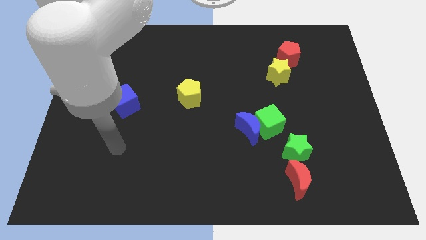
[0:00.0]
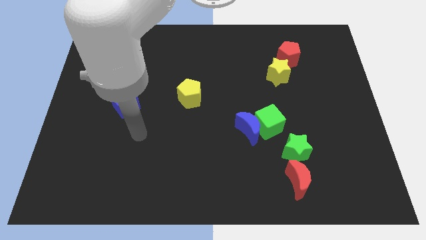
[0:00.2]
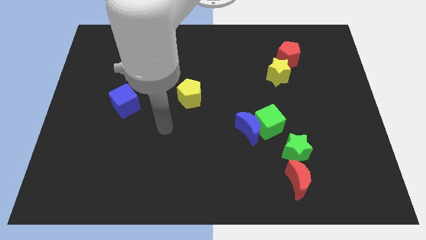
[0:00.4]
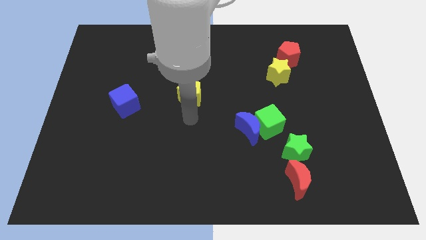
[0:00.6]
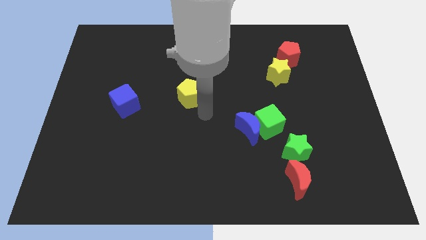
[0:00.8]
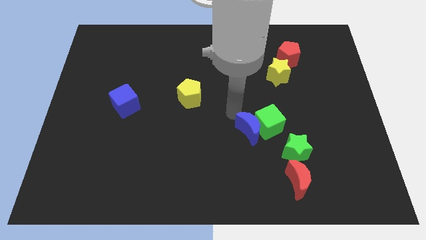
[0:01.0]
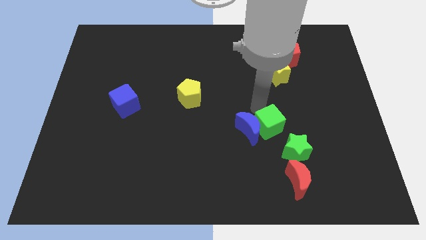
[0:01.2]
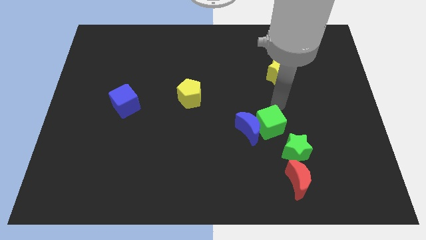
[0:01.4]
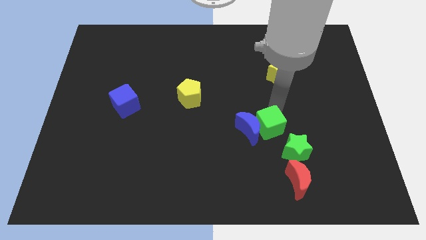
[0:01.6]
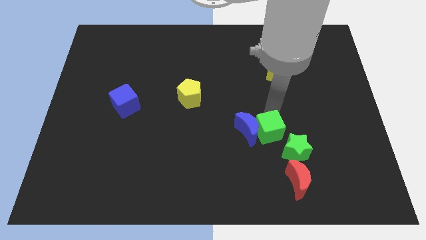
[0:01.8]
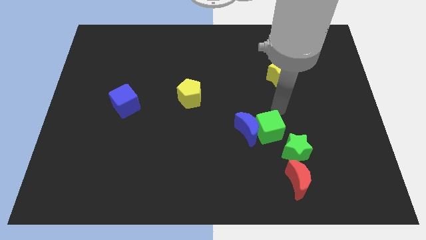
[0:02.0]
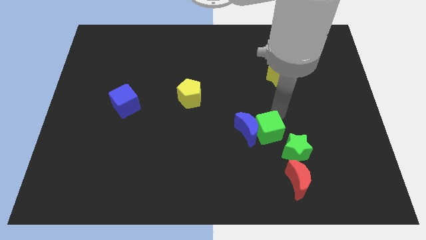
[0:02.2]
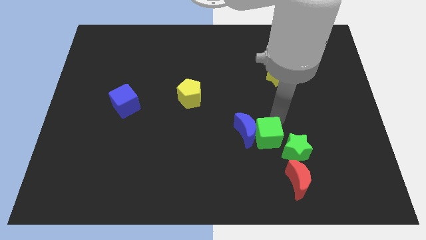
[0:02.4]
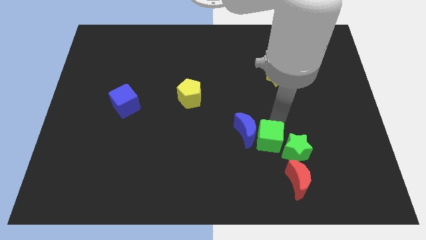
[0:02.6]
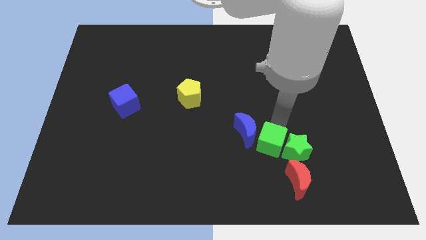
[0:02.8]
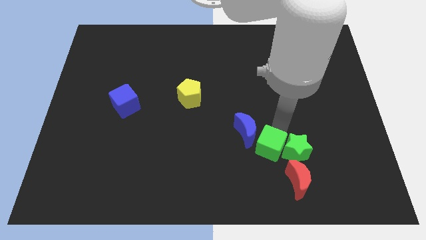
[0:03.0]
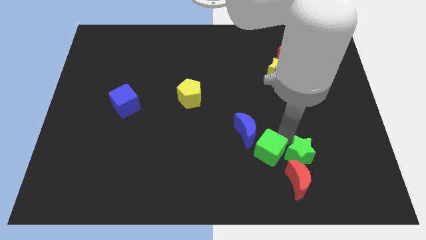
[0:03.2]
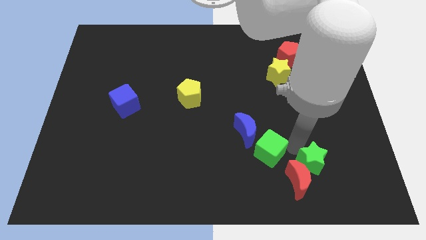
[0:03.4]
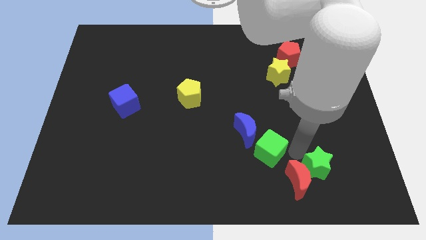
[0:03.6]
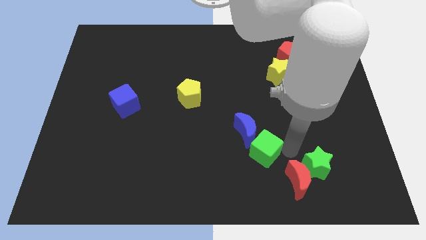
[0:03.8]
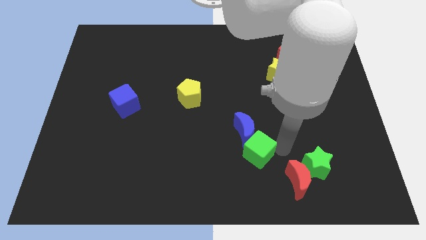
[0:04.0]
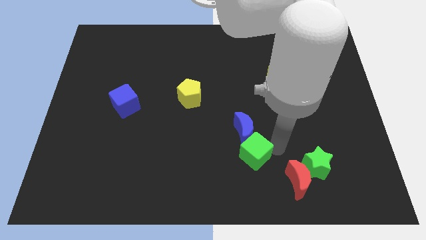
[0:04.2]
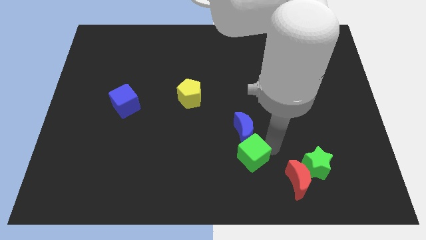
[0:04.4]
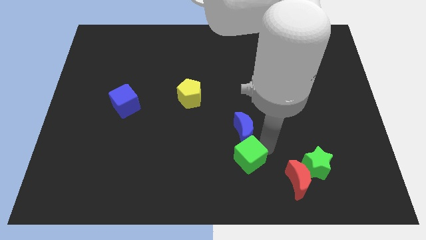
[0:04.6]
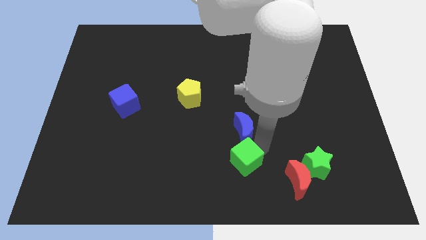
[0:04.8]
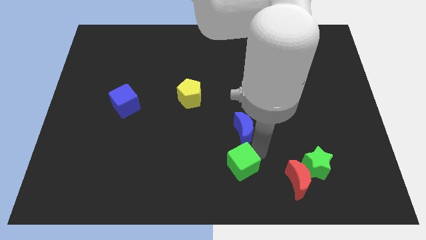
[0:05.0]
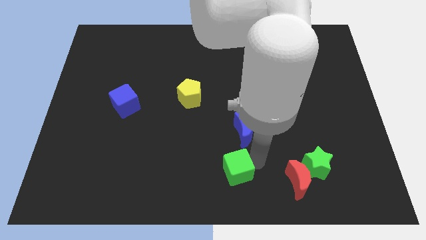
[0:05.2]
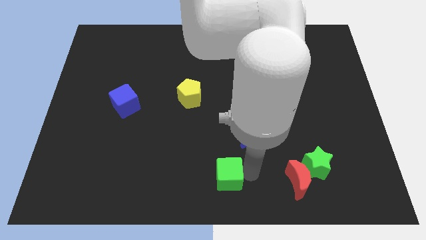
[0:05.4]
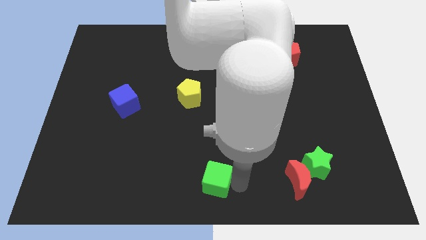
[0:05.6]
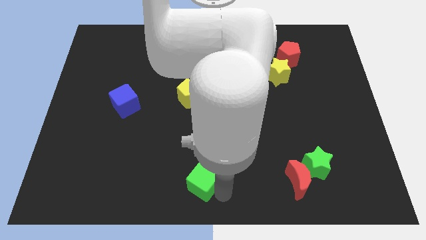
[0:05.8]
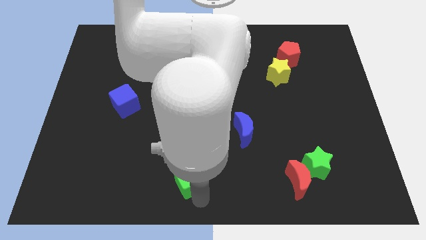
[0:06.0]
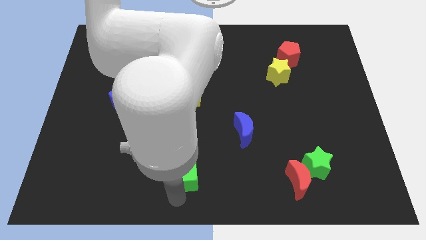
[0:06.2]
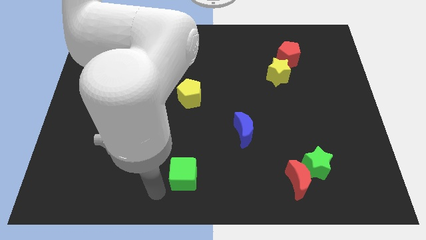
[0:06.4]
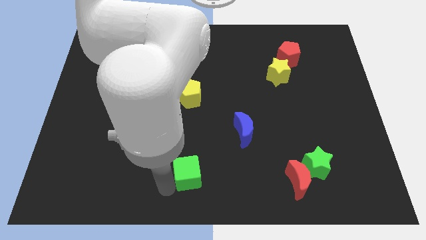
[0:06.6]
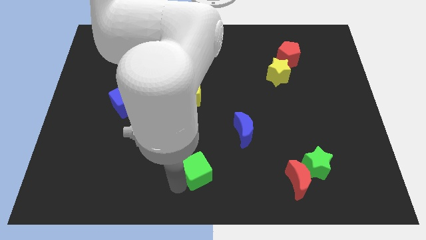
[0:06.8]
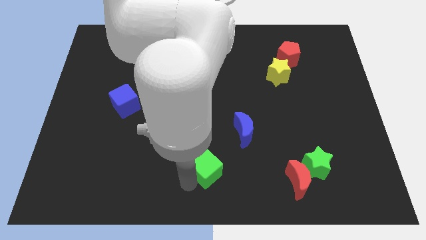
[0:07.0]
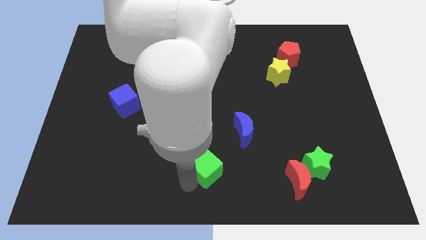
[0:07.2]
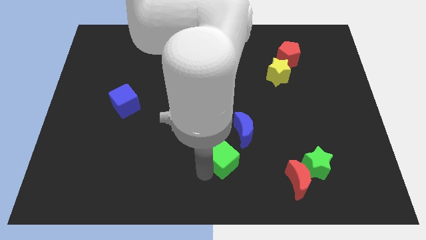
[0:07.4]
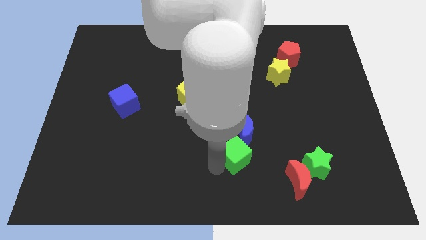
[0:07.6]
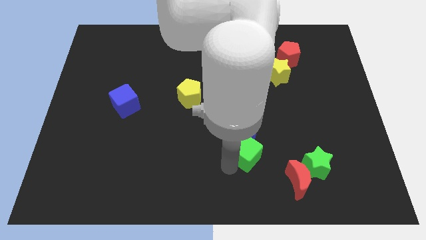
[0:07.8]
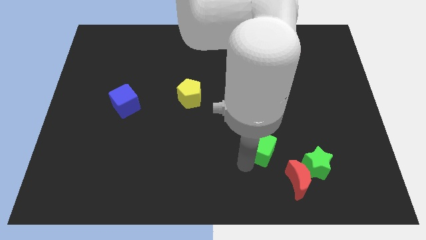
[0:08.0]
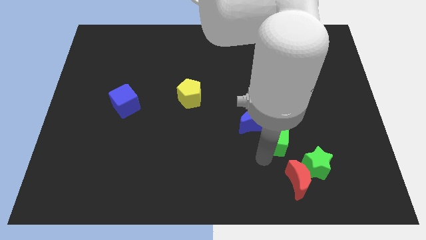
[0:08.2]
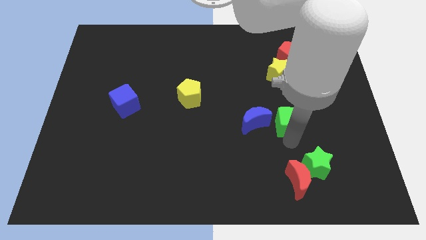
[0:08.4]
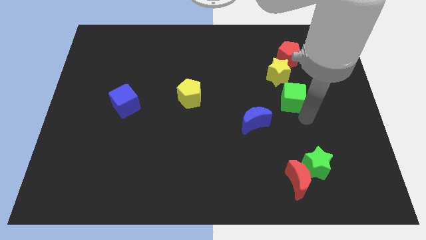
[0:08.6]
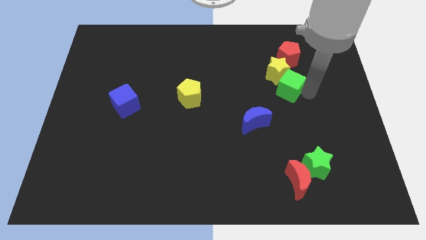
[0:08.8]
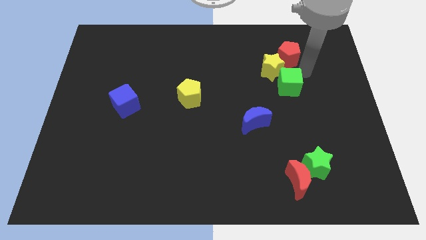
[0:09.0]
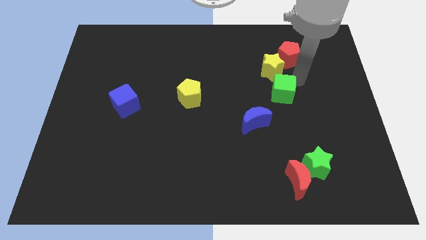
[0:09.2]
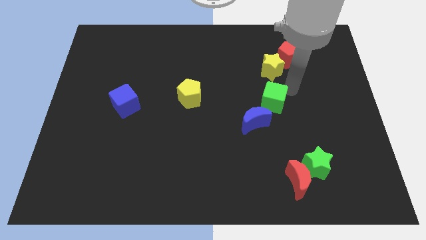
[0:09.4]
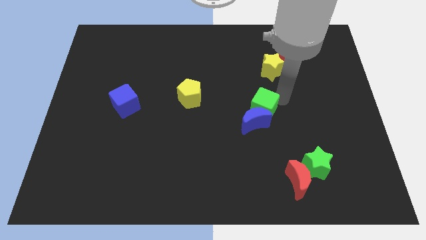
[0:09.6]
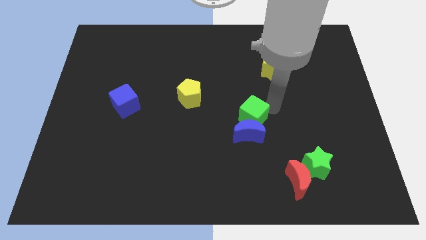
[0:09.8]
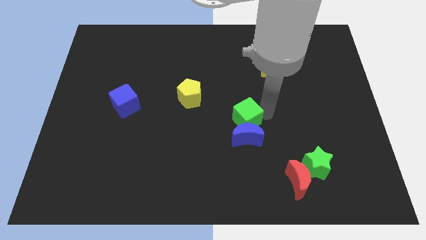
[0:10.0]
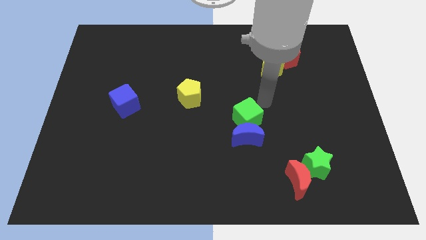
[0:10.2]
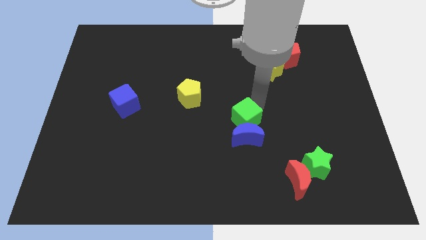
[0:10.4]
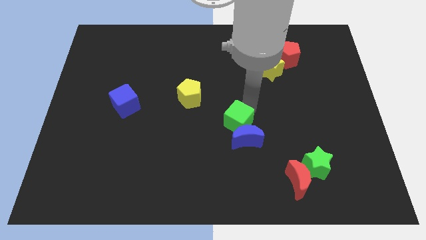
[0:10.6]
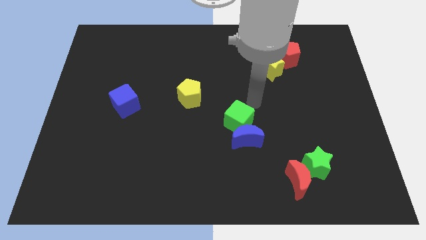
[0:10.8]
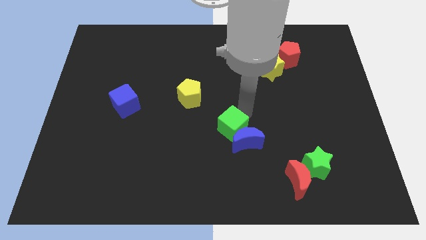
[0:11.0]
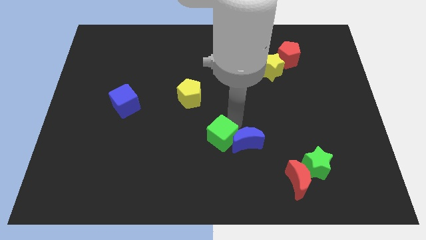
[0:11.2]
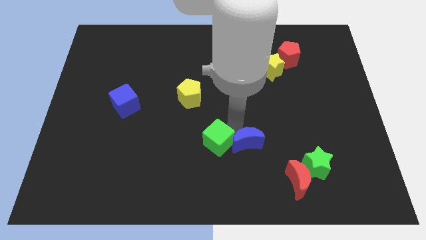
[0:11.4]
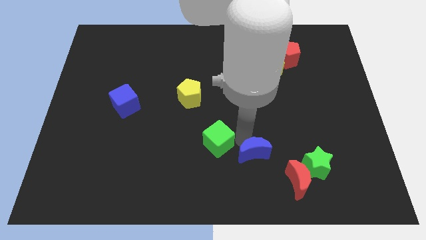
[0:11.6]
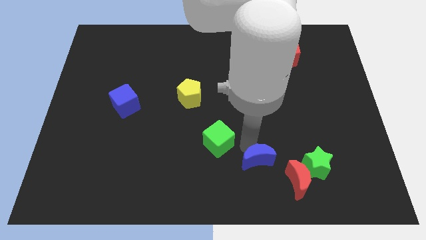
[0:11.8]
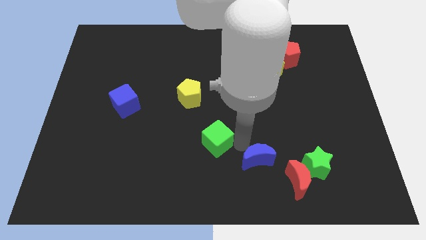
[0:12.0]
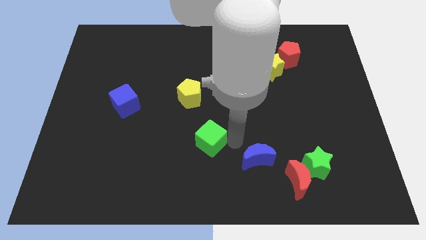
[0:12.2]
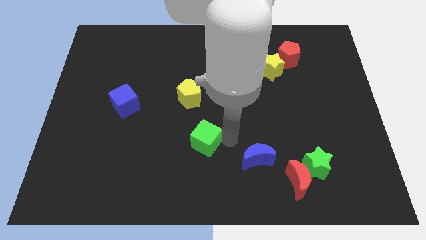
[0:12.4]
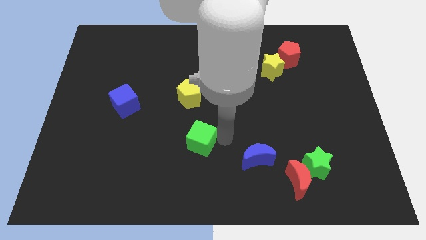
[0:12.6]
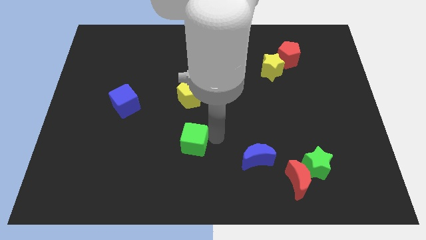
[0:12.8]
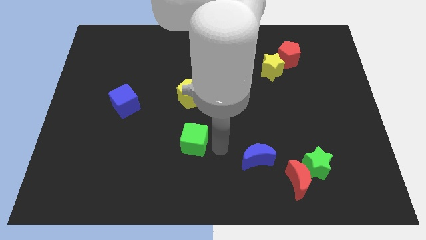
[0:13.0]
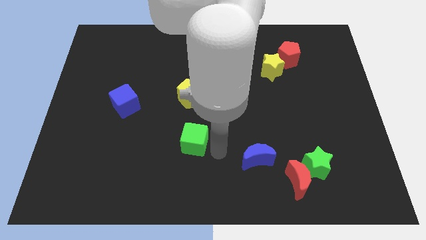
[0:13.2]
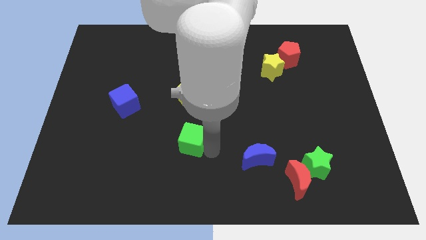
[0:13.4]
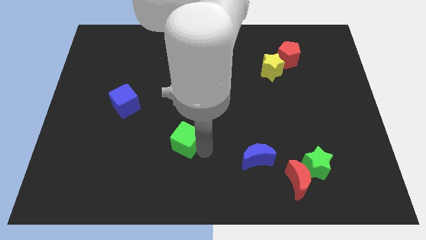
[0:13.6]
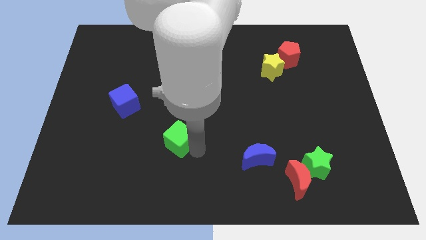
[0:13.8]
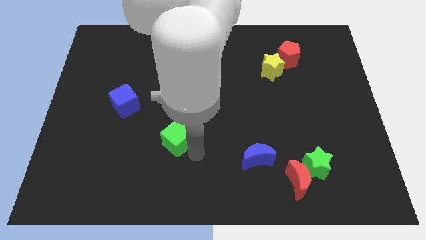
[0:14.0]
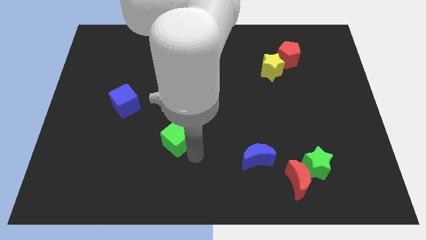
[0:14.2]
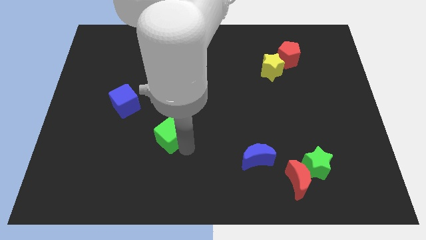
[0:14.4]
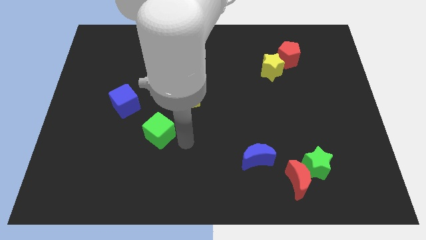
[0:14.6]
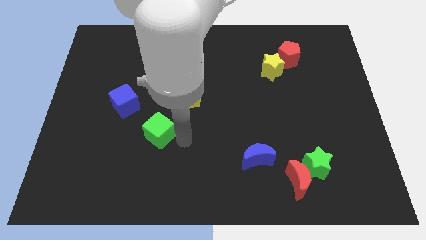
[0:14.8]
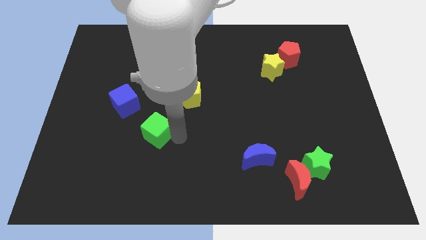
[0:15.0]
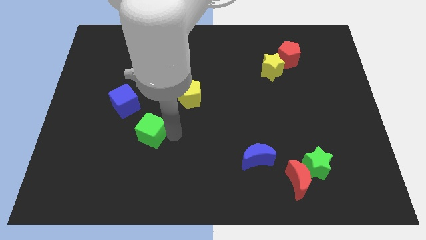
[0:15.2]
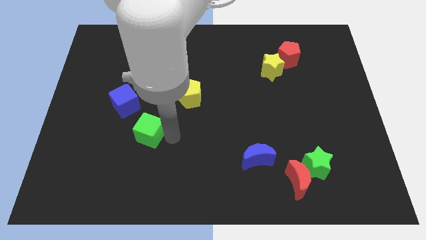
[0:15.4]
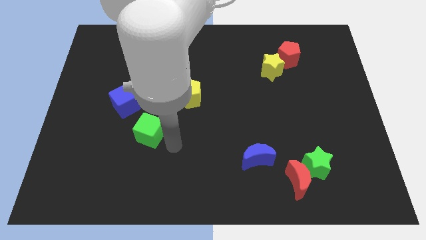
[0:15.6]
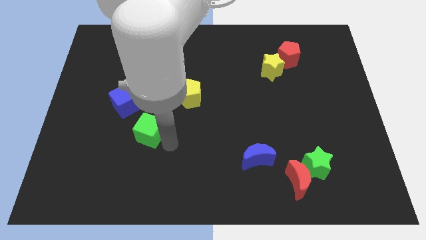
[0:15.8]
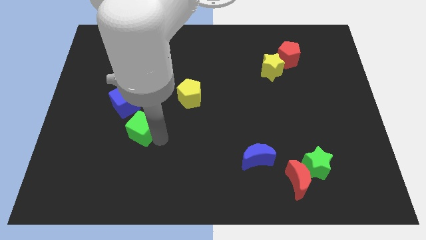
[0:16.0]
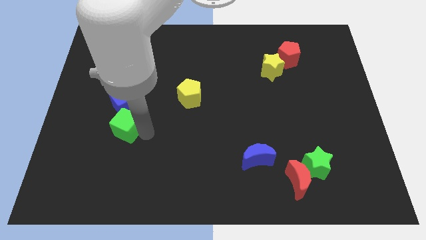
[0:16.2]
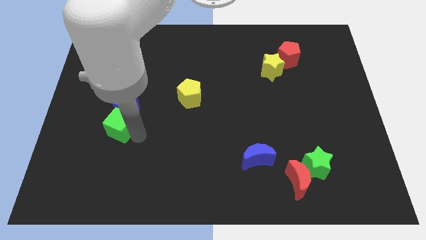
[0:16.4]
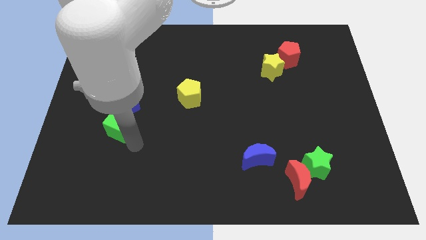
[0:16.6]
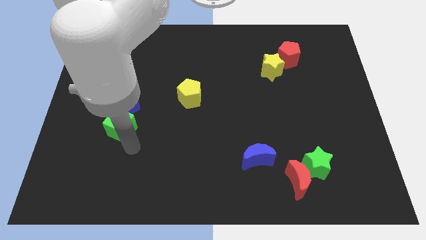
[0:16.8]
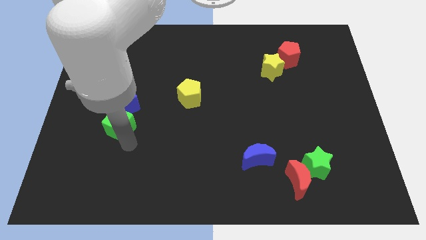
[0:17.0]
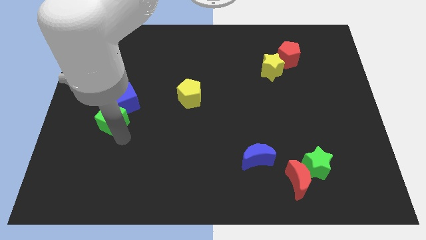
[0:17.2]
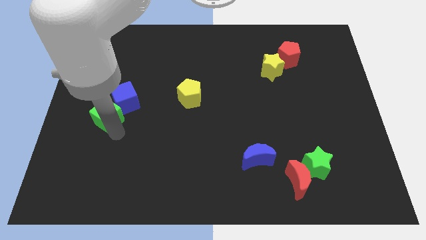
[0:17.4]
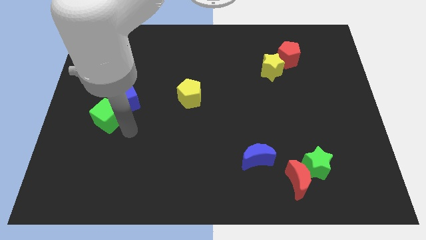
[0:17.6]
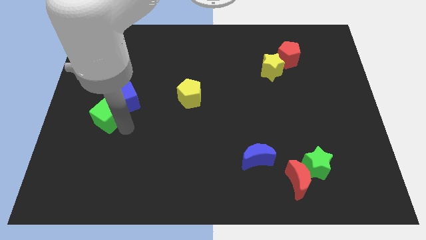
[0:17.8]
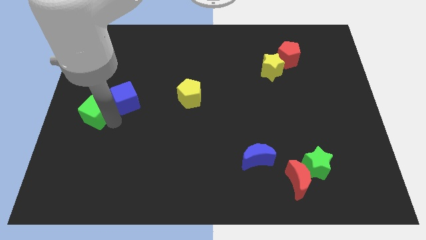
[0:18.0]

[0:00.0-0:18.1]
slide the green cube to the center left
